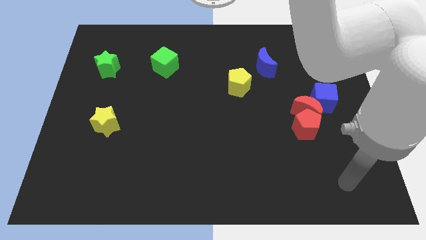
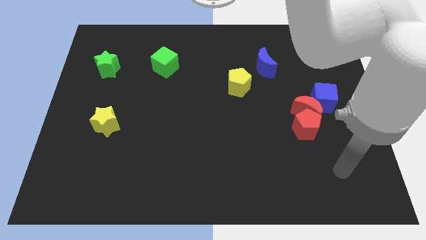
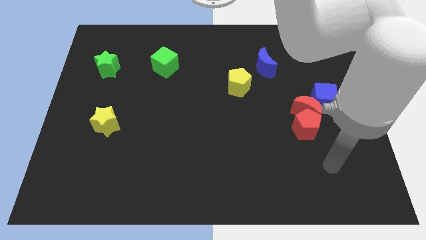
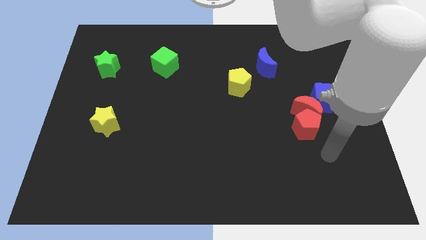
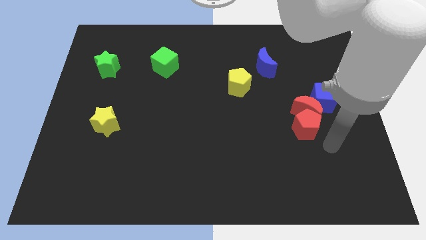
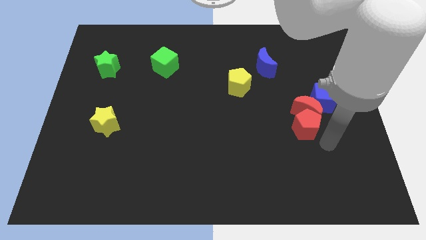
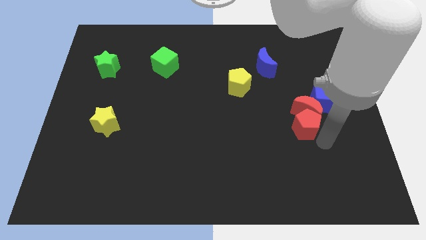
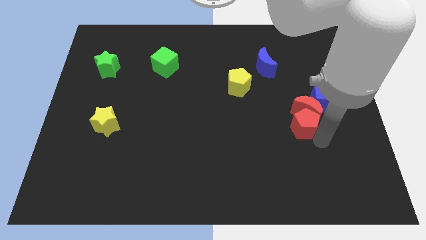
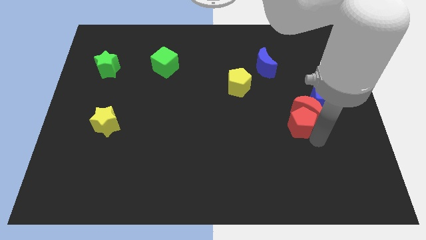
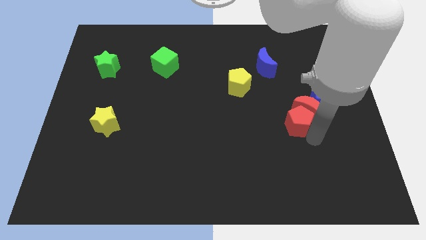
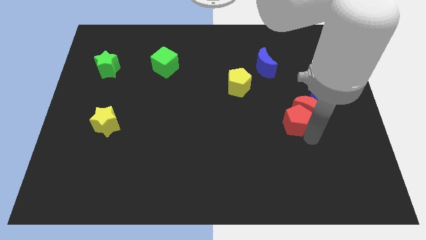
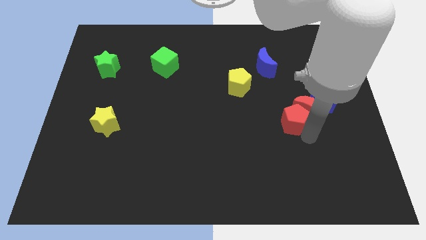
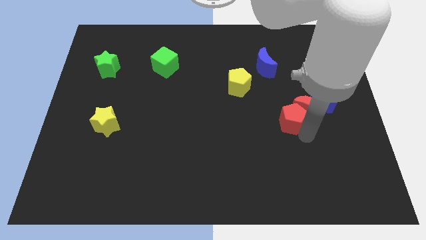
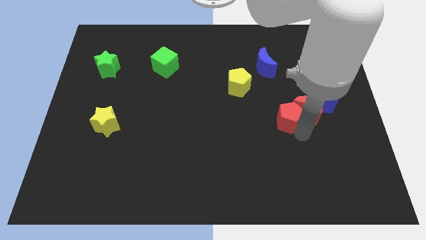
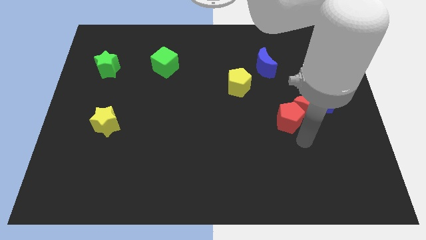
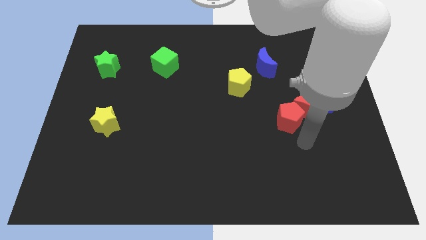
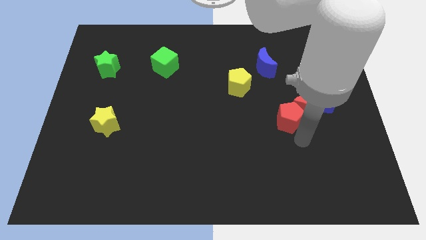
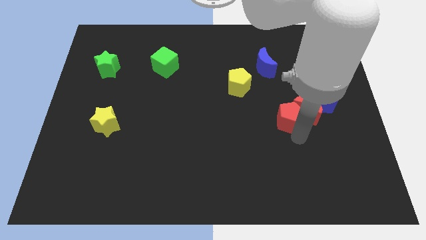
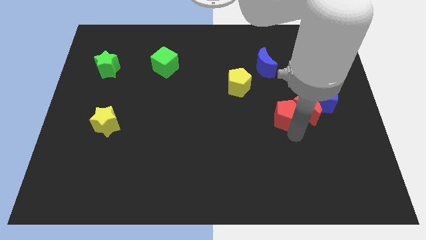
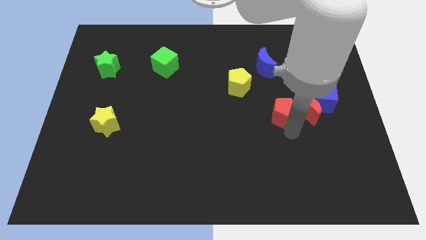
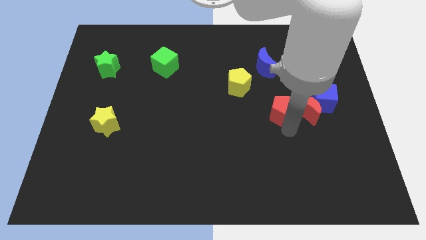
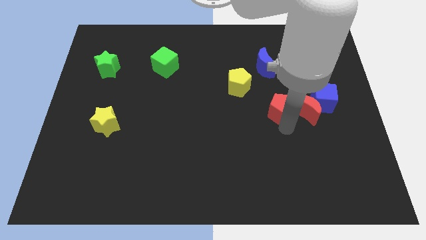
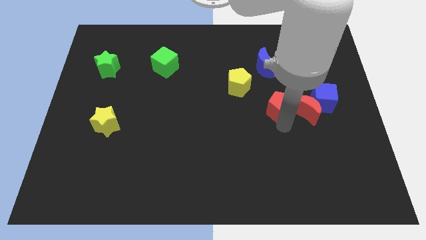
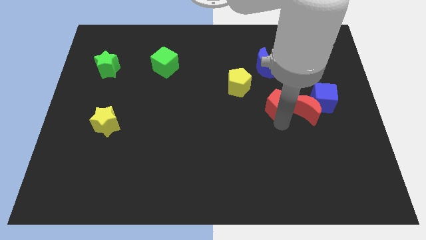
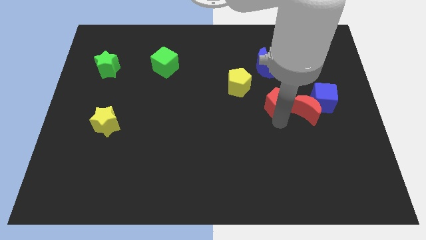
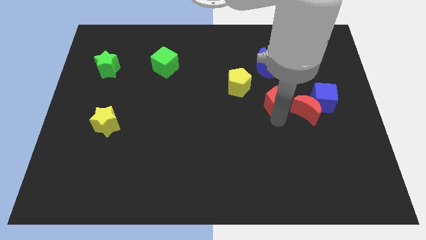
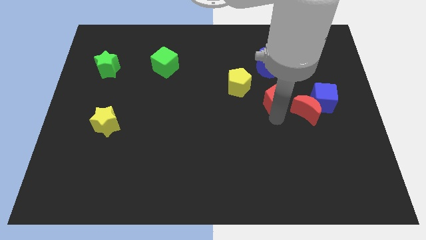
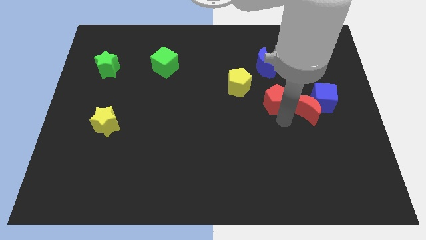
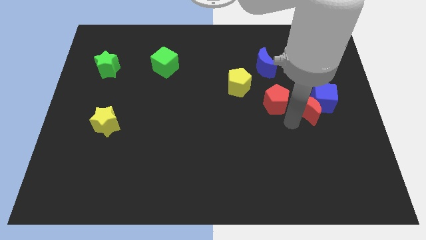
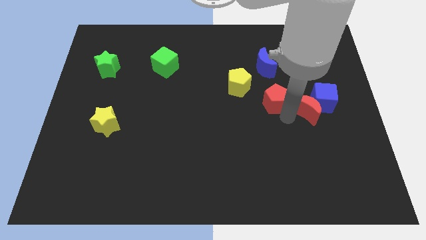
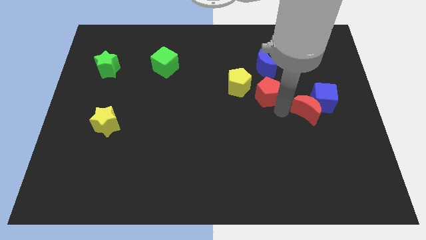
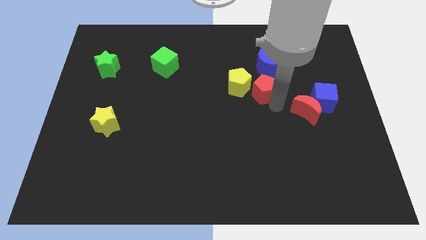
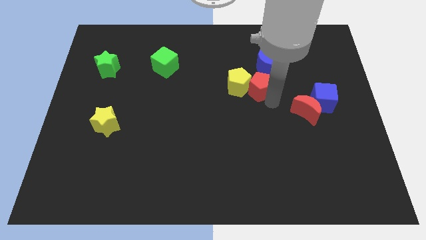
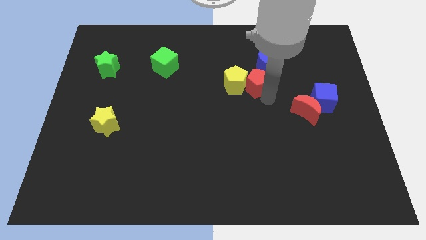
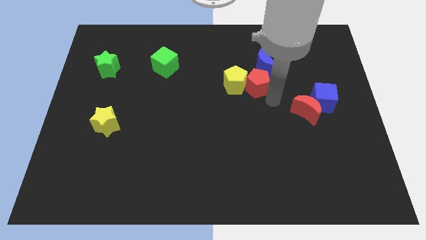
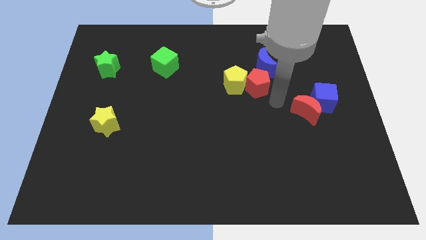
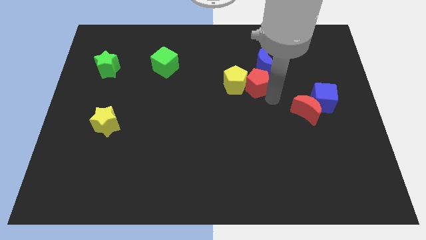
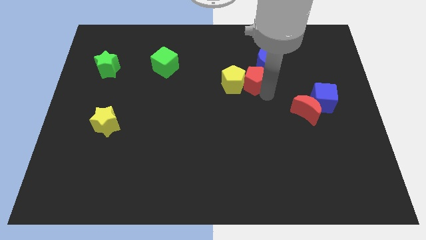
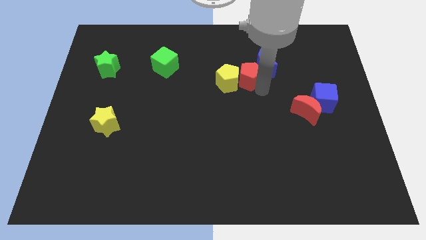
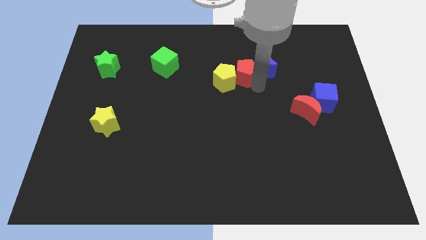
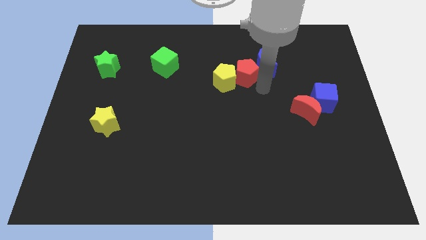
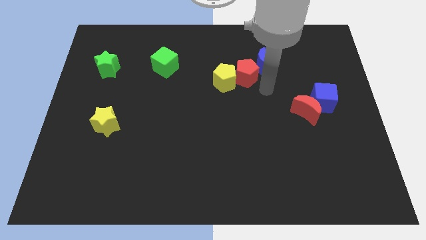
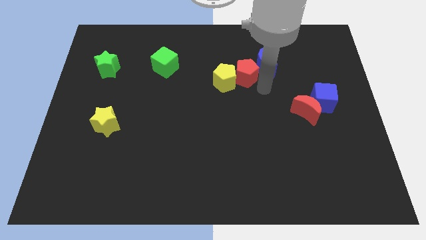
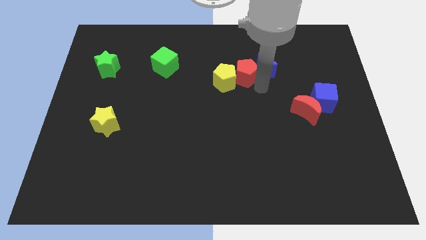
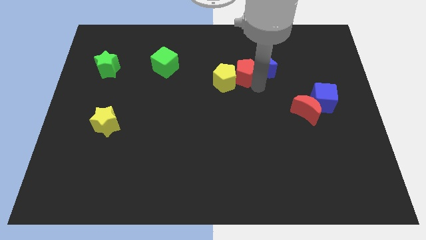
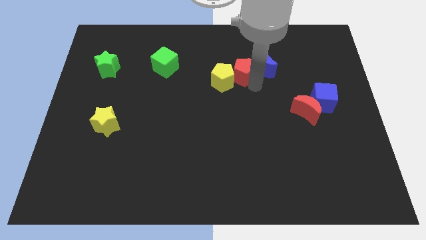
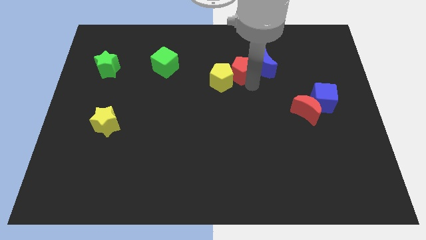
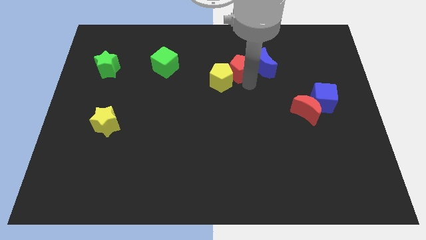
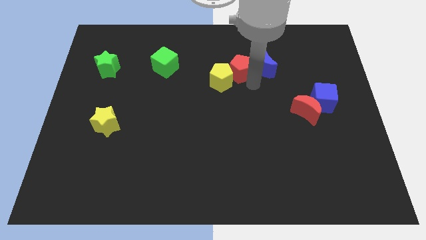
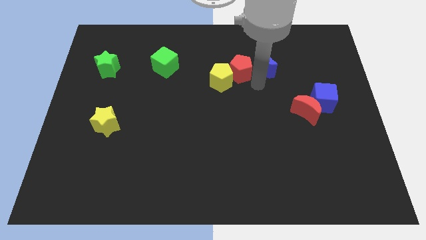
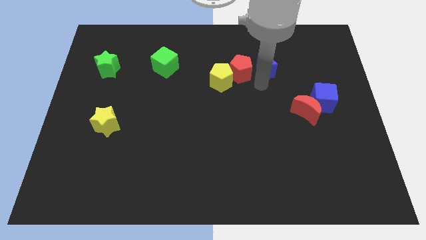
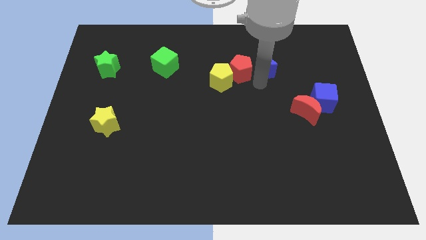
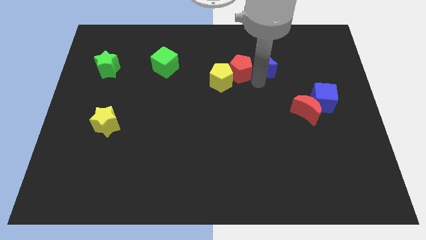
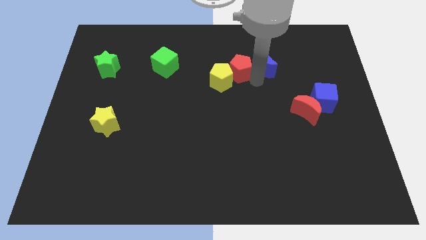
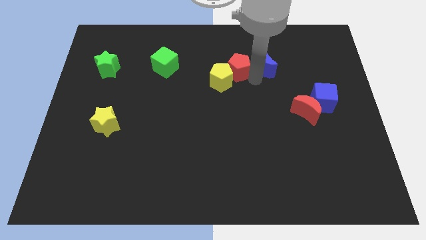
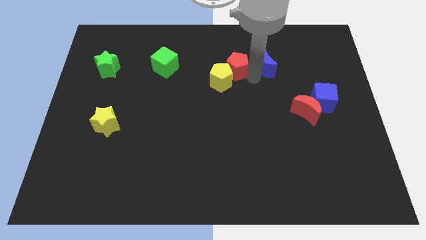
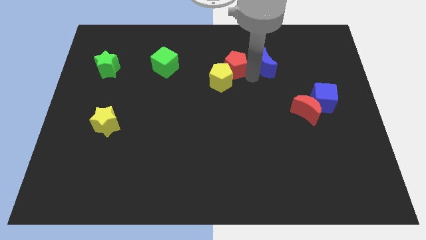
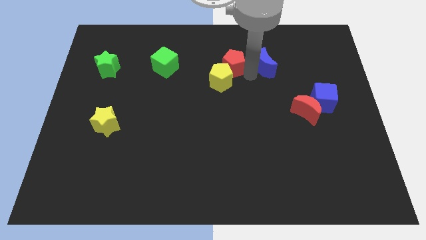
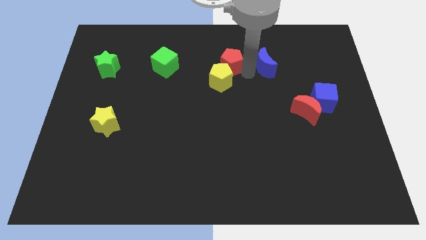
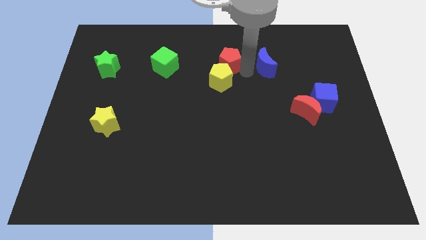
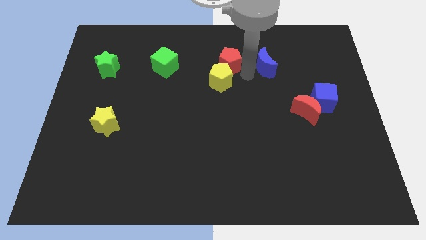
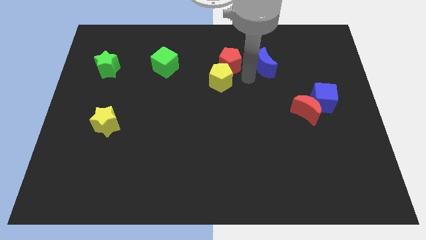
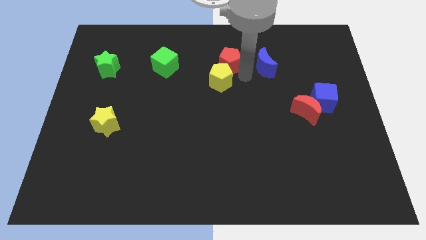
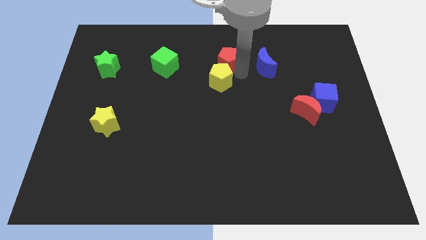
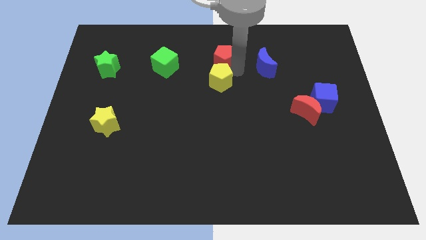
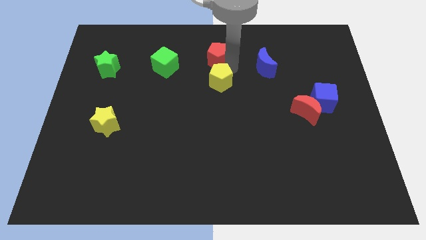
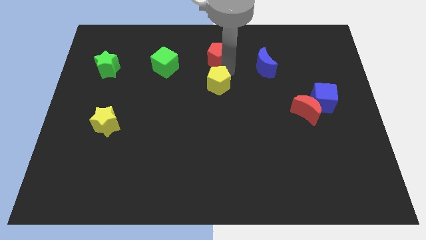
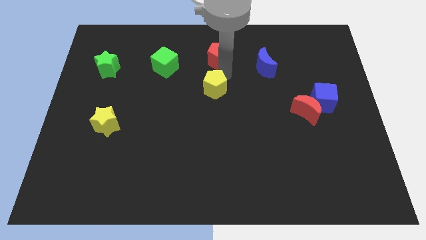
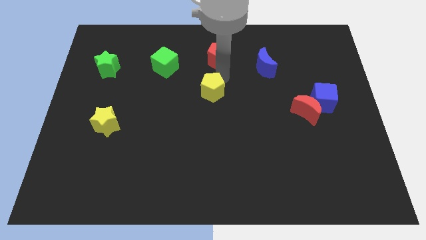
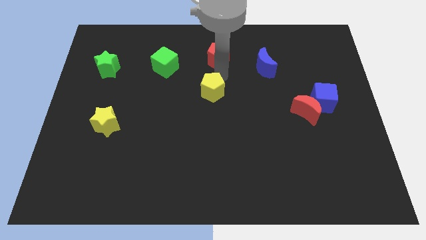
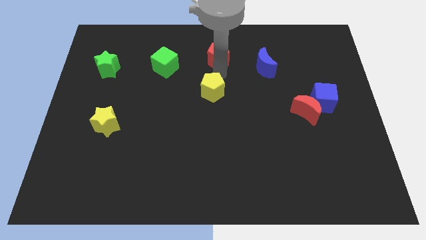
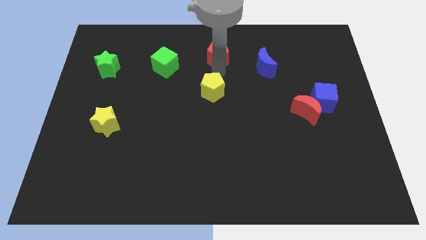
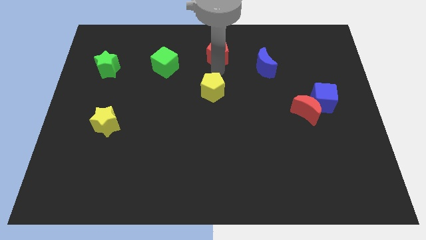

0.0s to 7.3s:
put the red pentagon to the top side

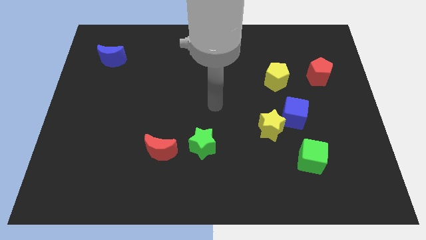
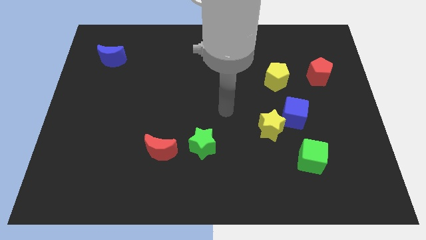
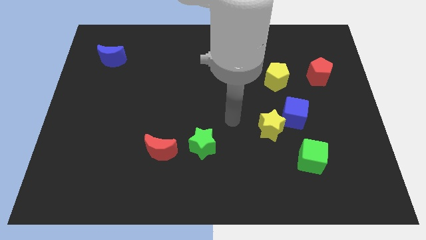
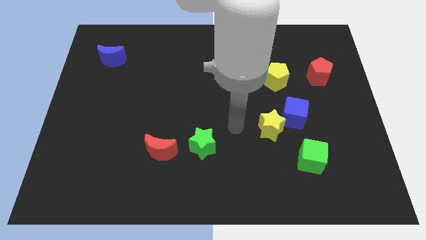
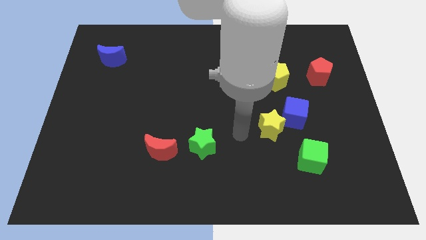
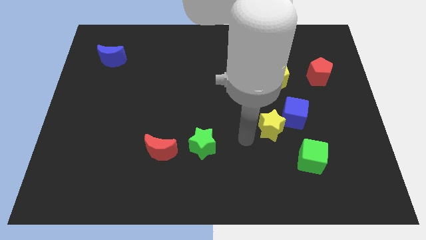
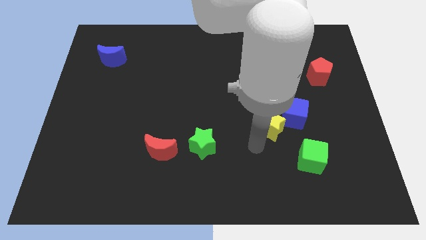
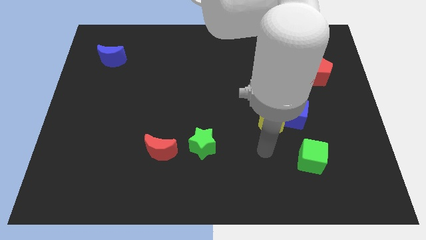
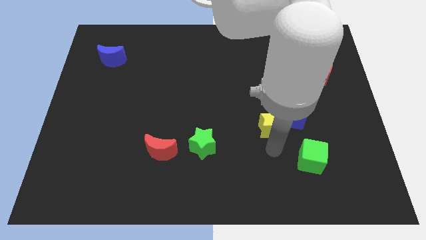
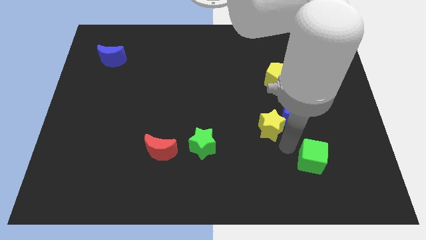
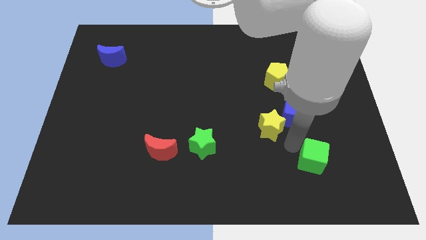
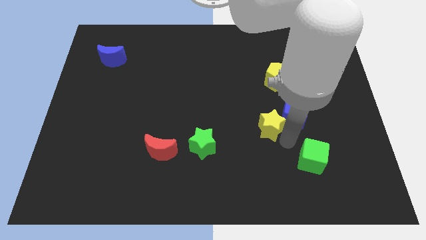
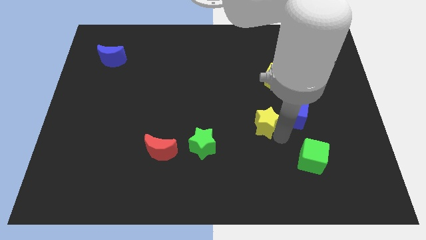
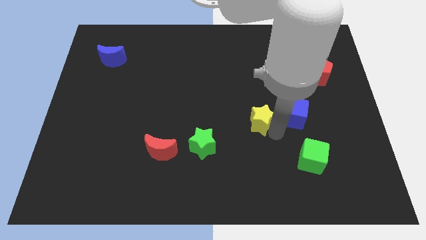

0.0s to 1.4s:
push the yellow star to the middle of the board
